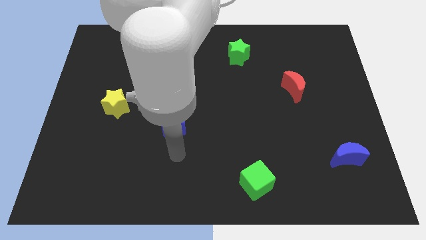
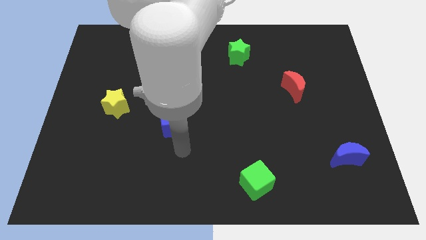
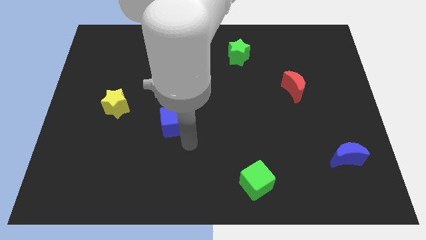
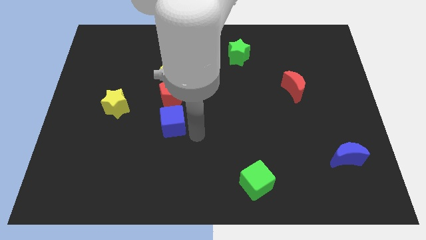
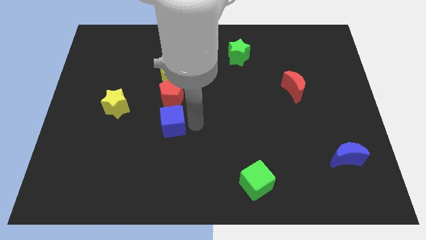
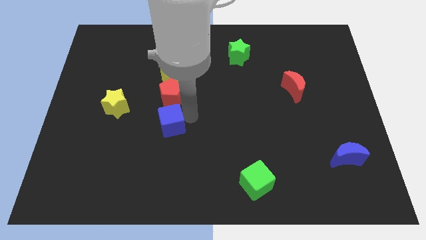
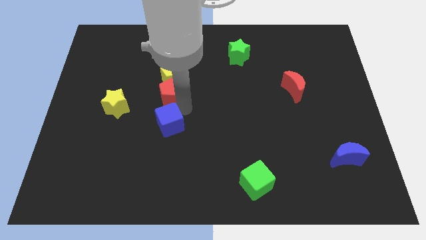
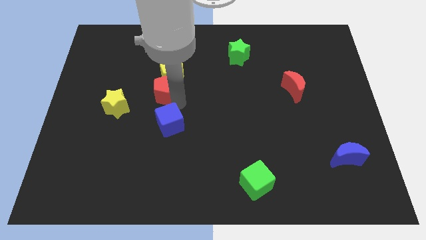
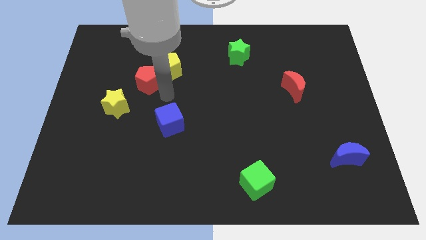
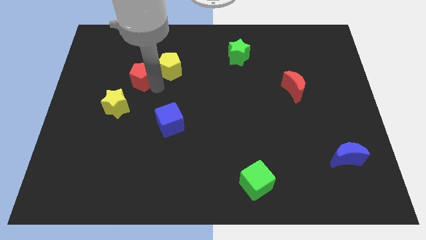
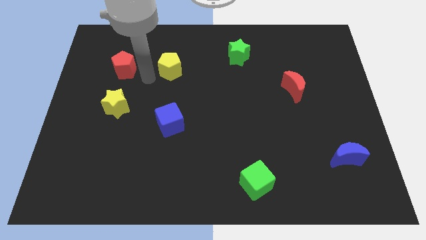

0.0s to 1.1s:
pull the yellow pentagon apart from the red pentagon

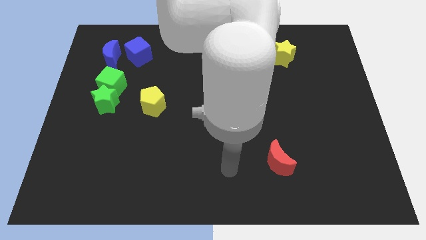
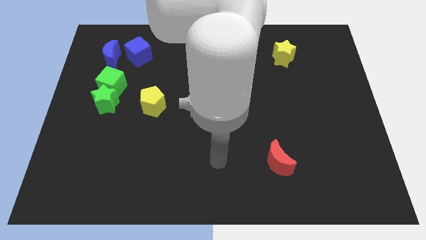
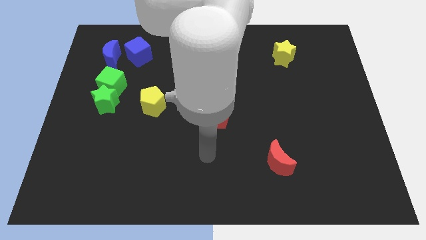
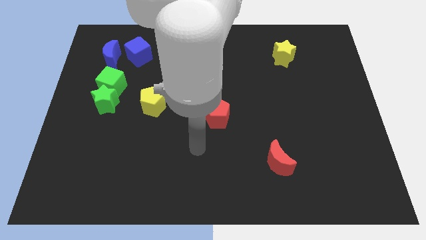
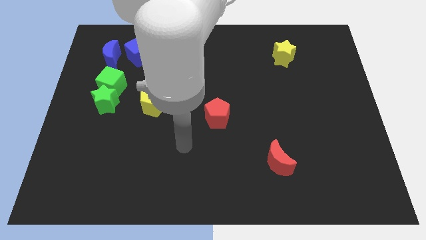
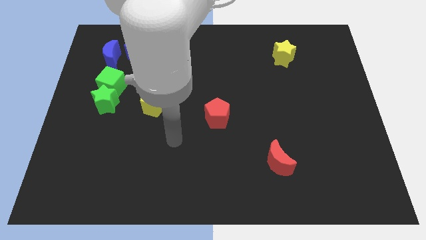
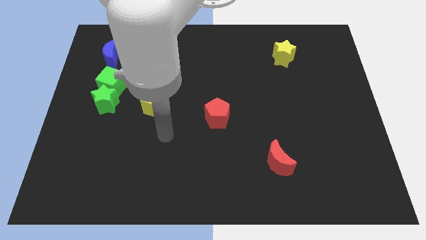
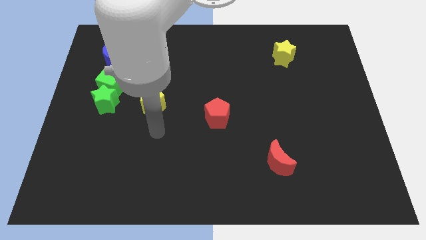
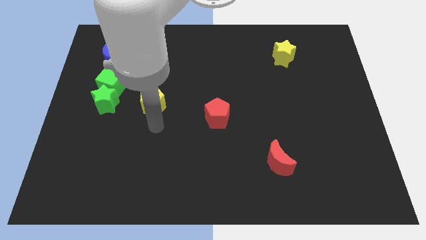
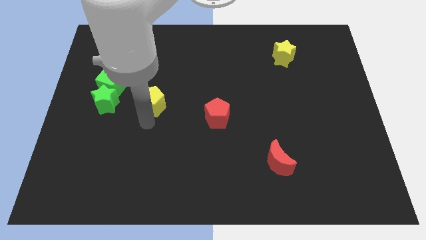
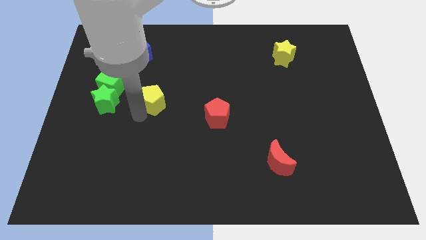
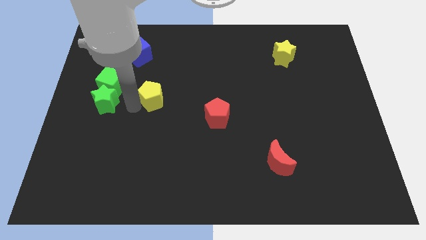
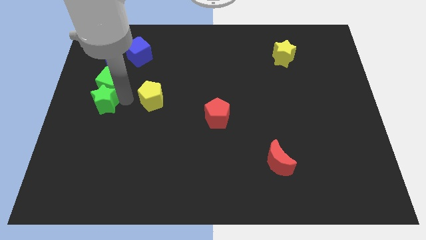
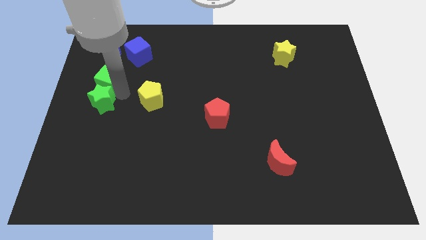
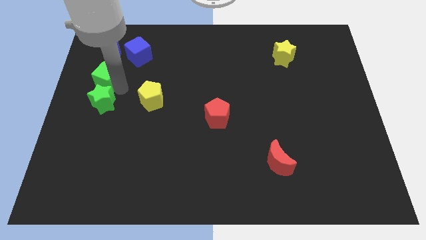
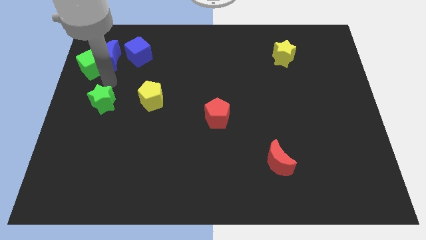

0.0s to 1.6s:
pull the green star apart from the green cube

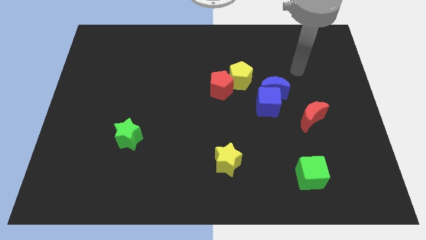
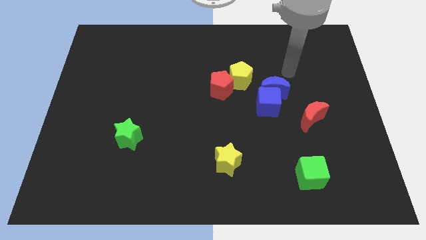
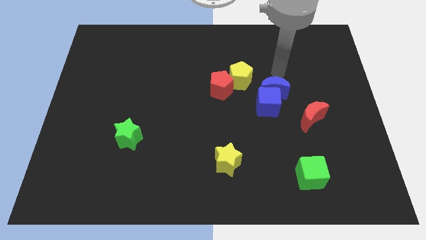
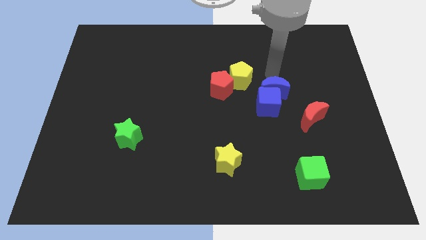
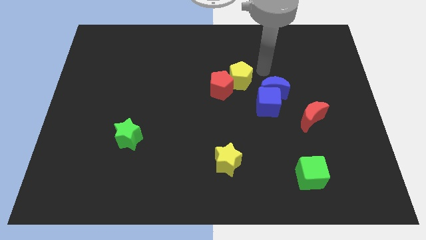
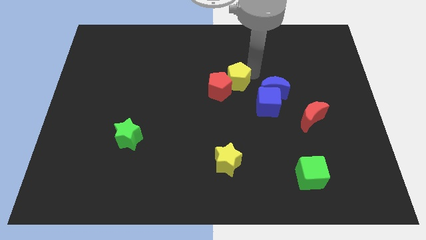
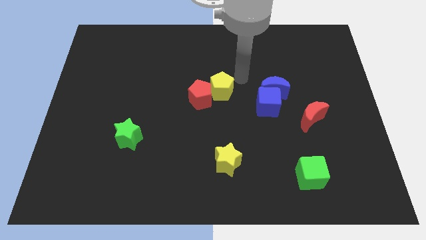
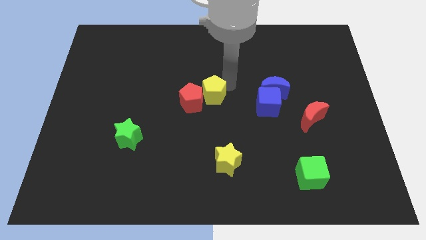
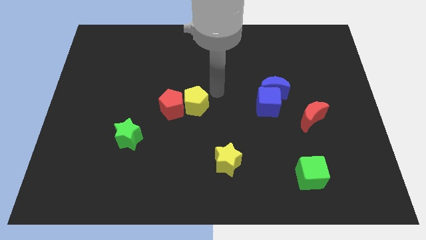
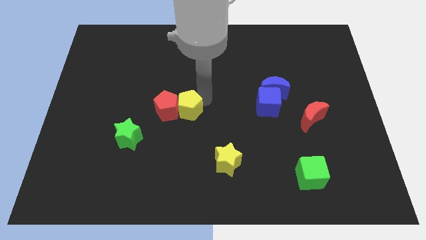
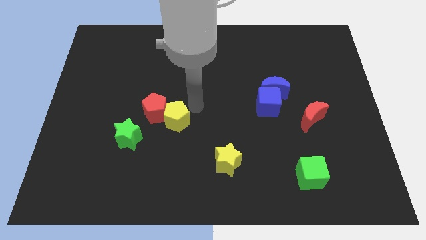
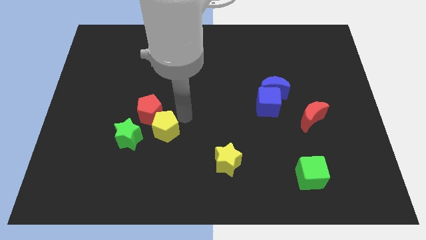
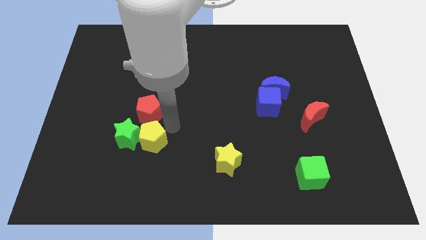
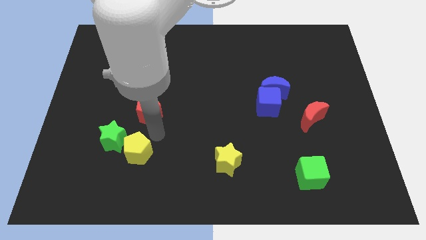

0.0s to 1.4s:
move the red pentagon away from the yellow pentagon

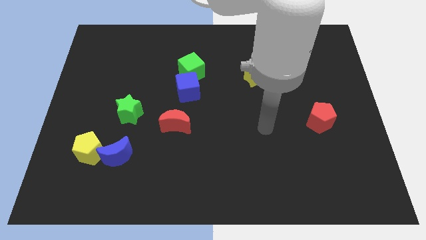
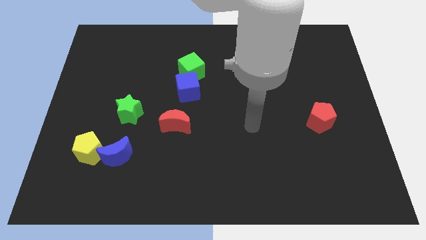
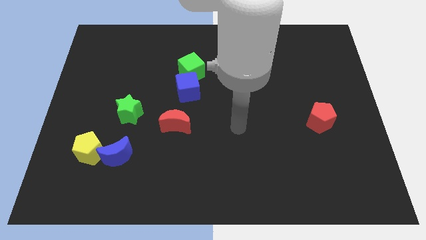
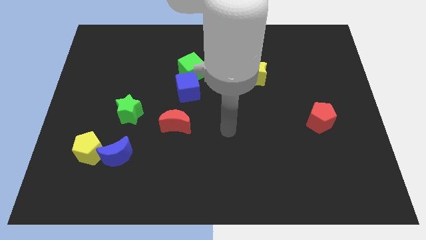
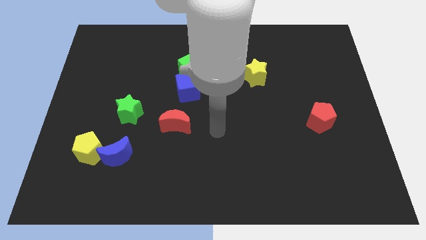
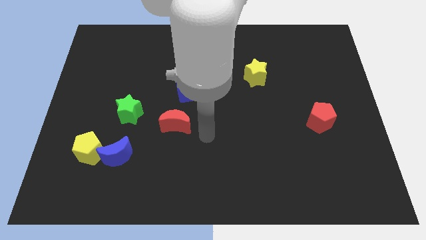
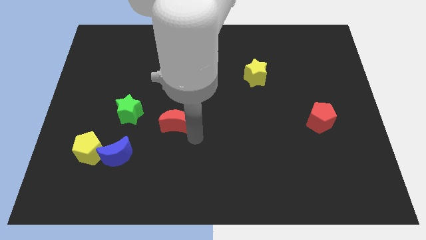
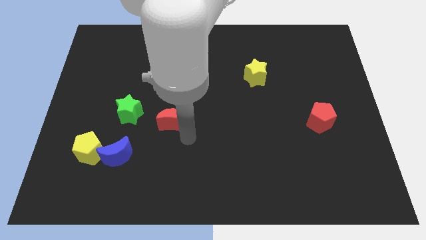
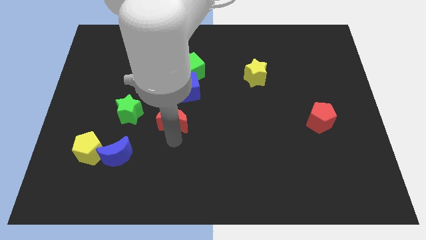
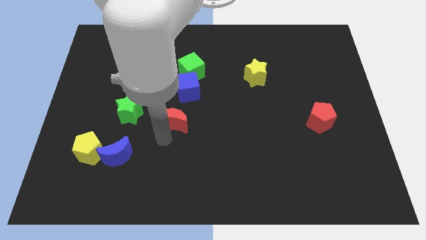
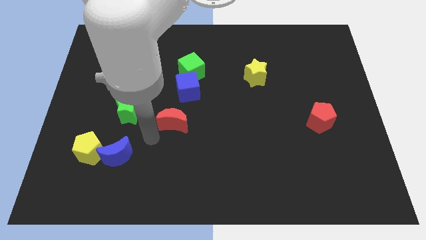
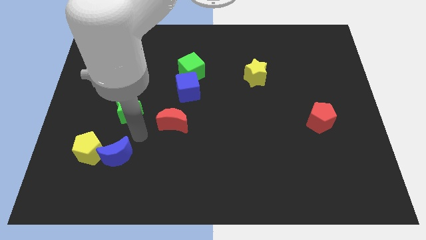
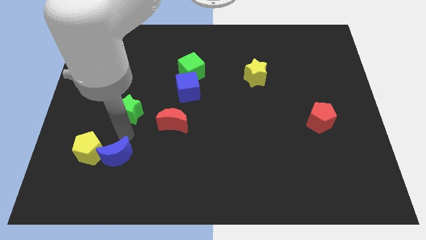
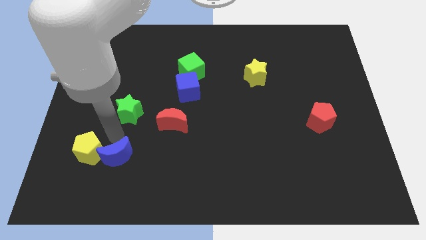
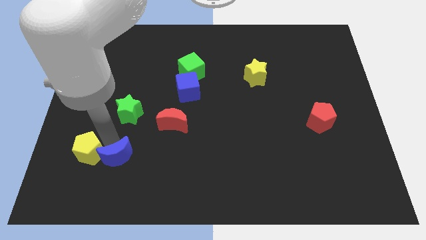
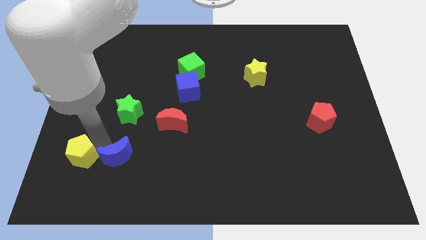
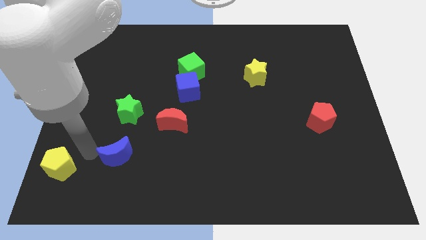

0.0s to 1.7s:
pull the blue moon apart from the yellow pentagon

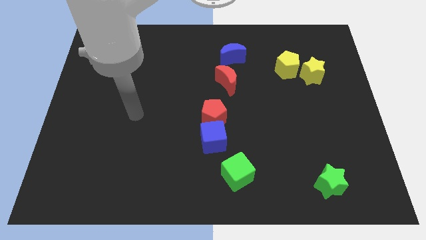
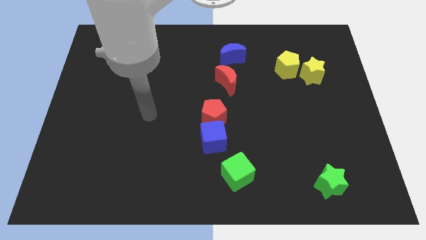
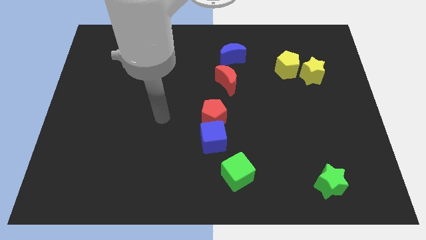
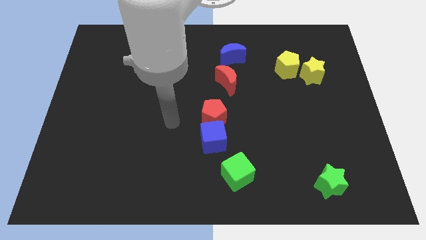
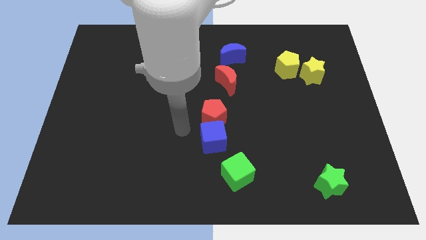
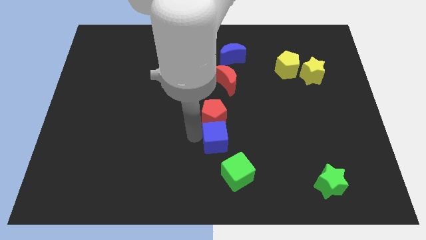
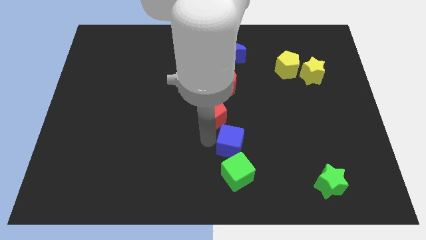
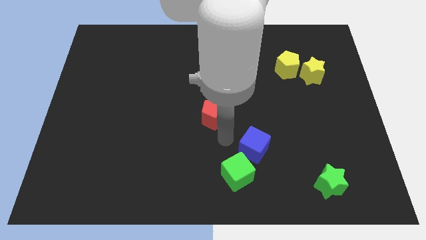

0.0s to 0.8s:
separate the red pentagon from the blue cube

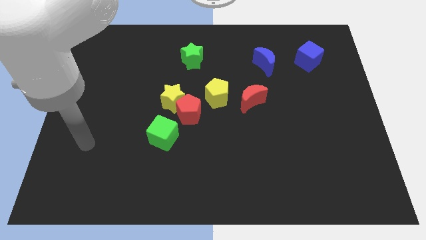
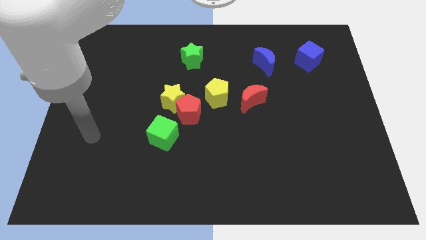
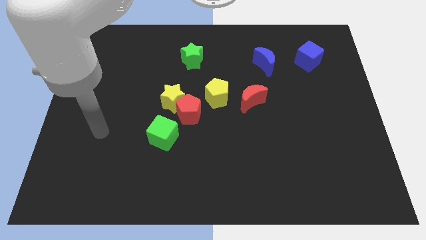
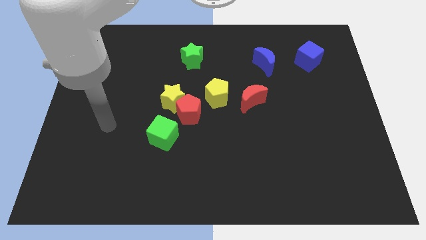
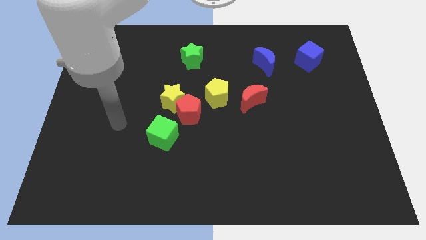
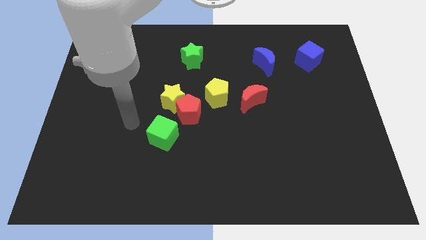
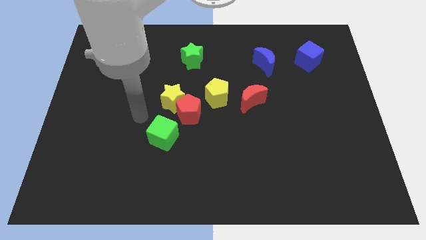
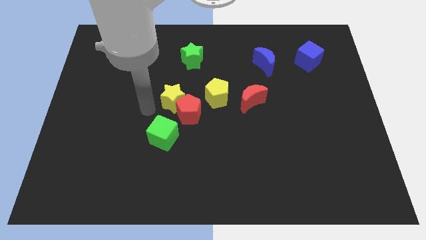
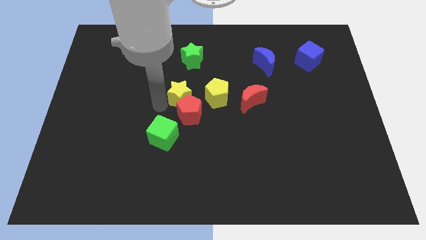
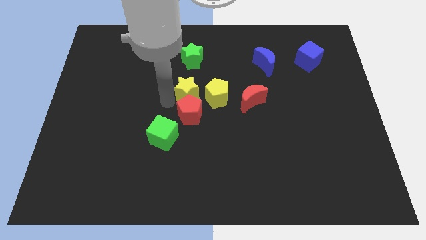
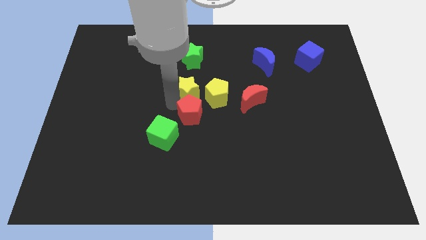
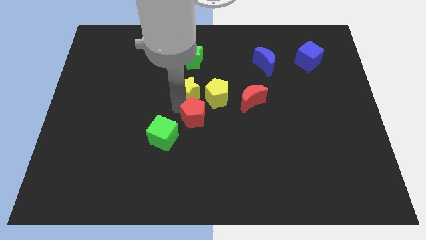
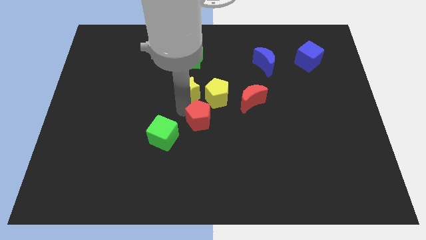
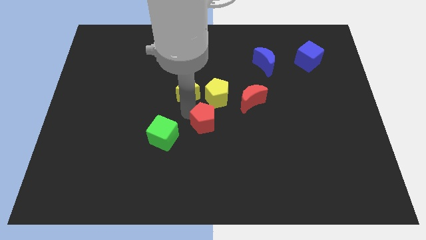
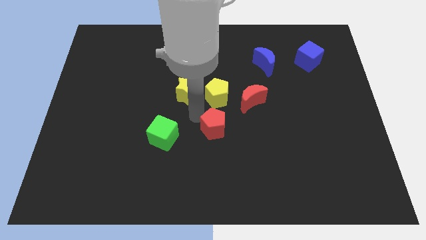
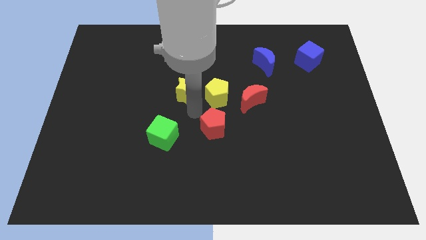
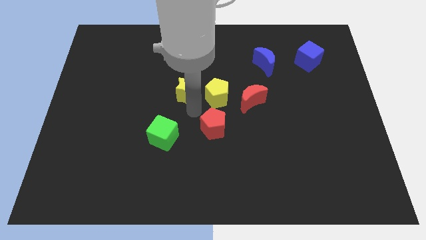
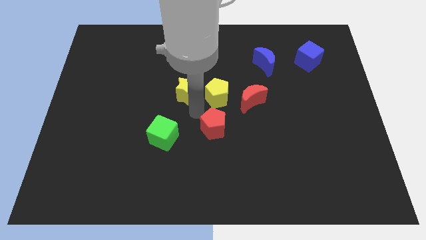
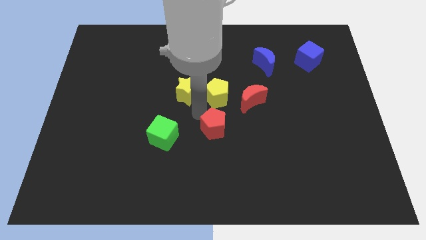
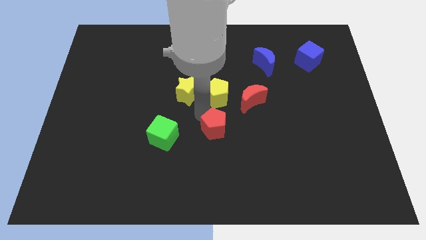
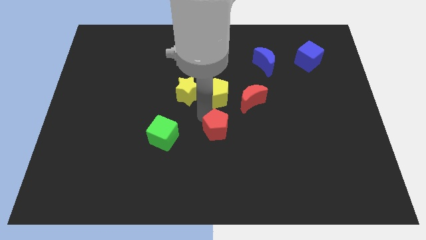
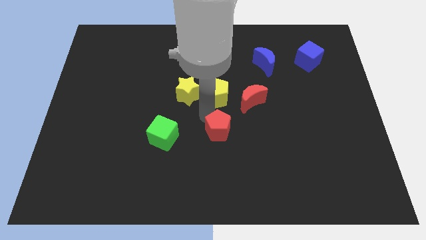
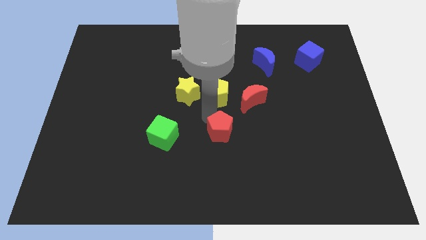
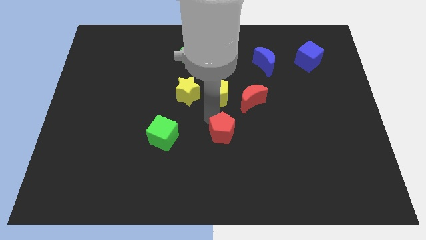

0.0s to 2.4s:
separate the red pentagon from the yellow star, yellow pentagon, and green cube

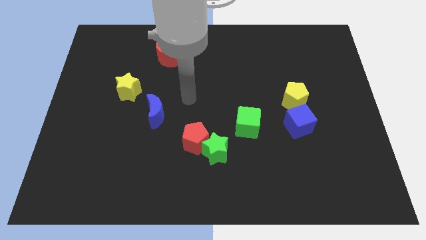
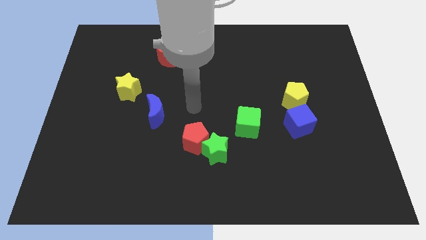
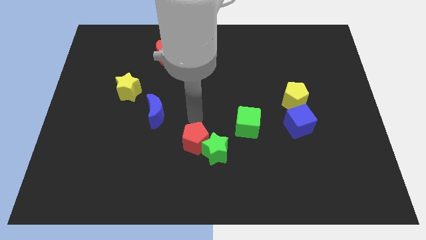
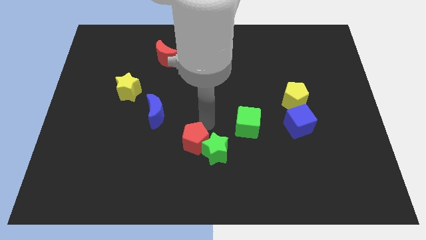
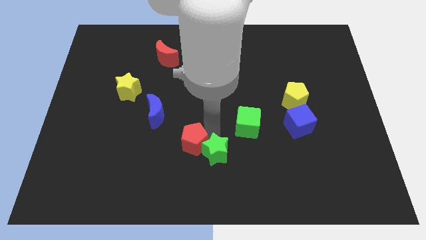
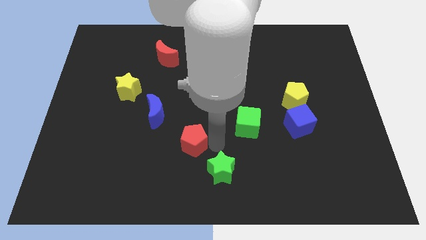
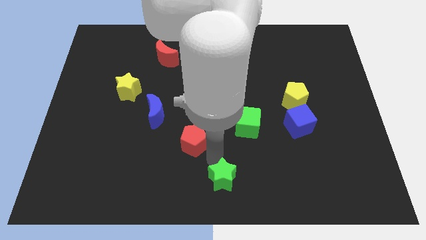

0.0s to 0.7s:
pull the red pentagon apart from the green star
